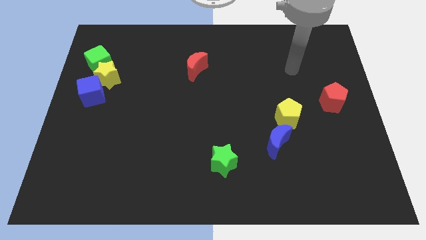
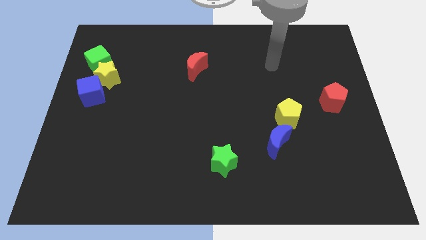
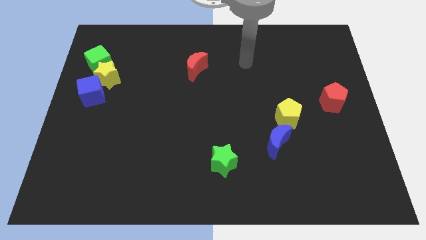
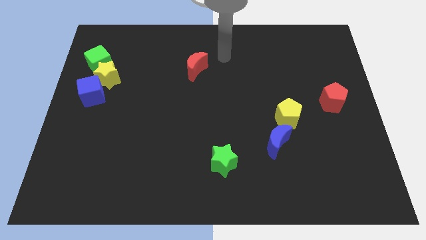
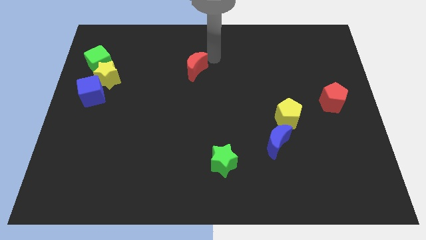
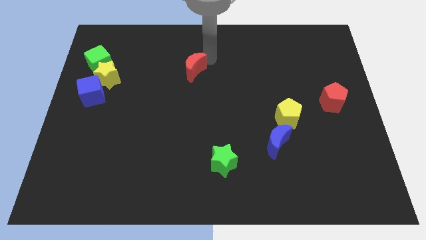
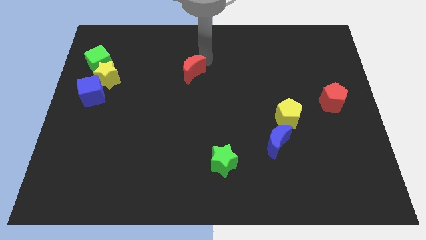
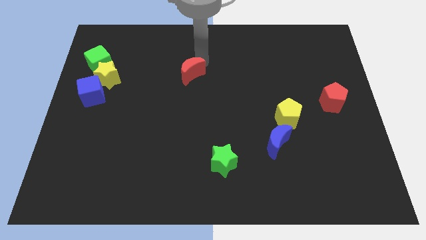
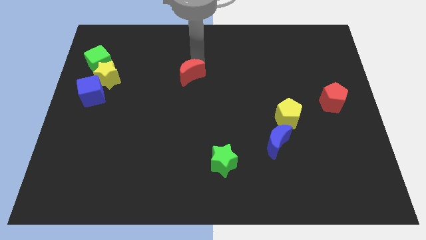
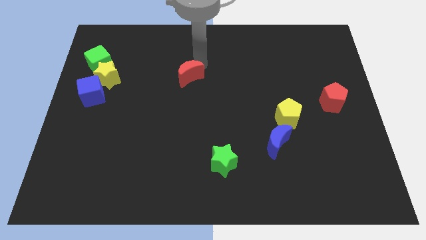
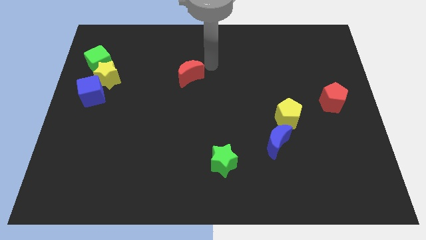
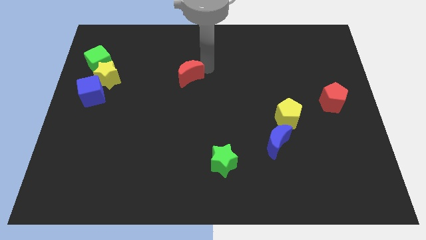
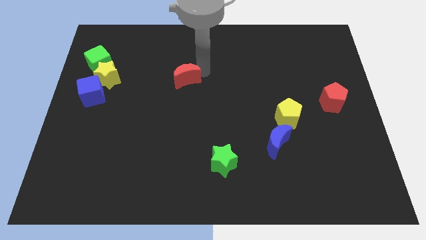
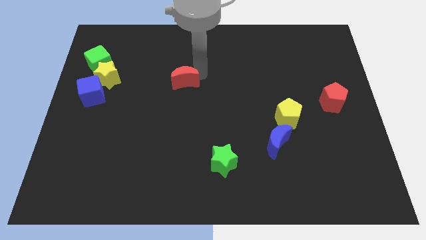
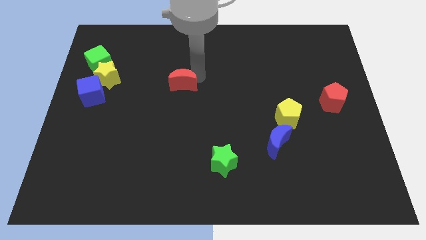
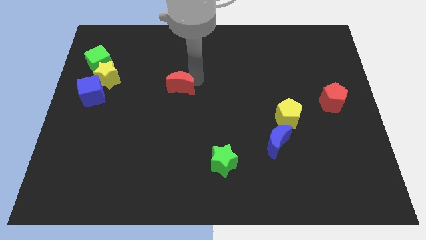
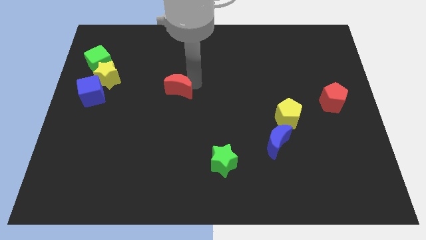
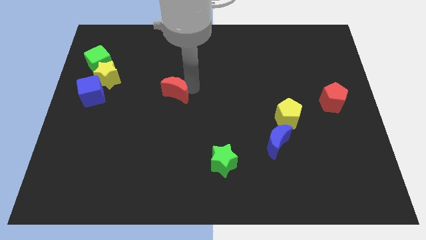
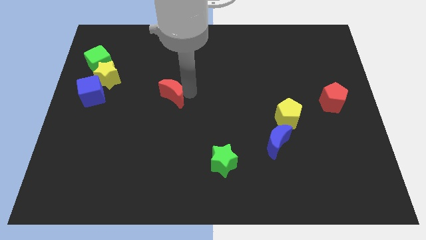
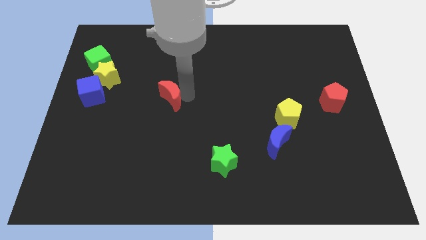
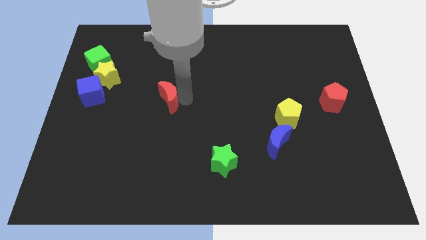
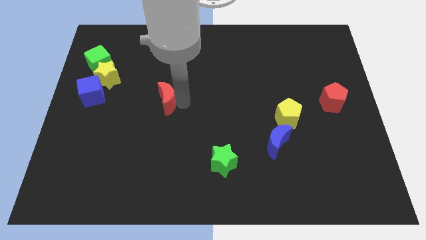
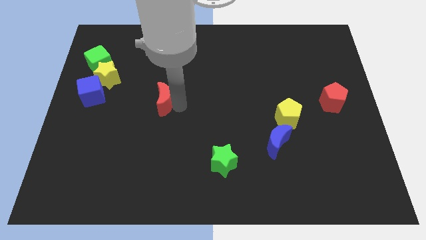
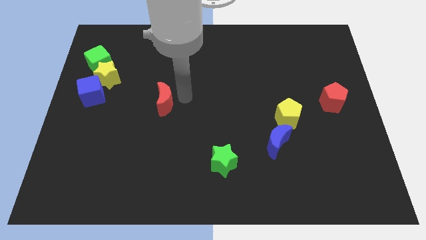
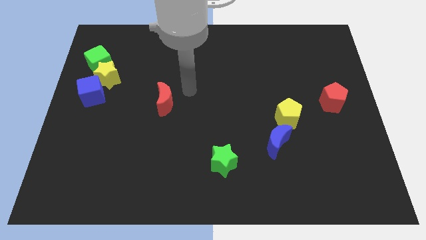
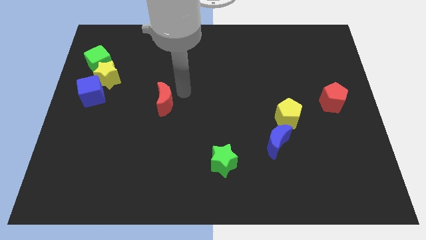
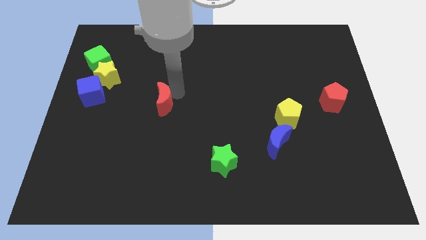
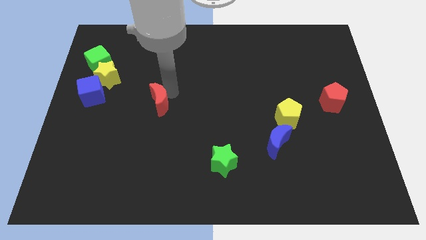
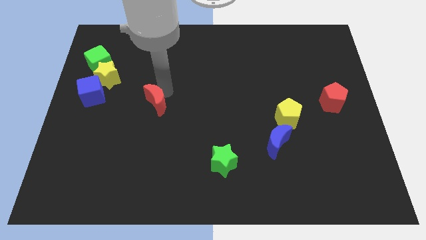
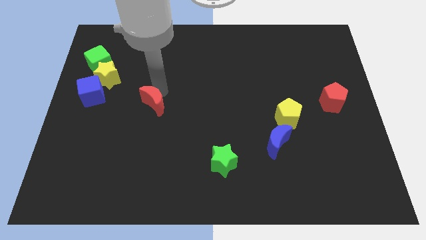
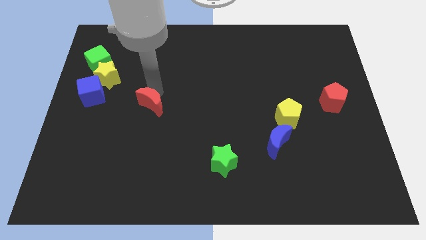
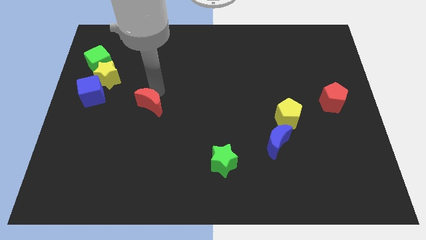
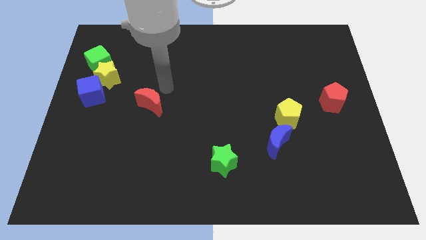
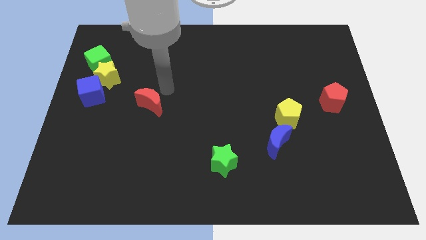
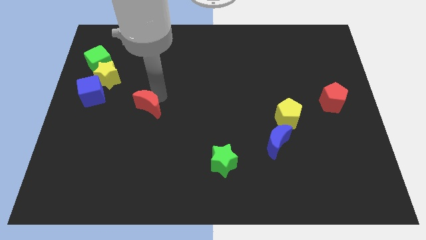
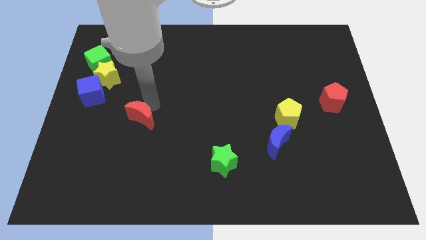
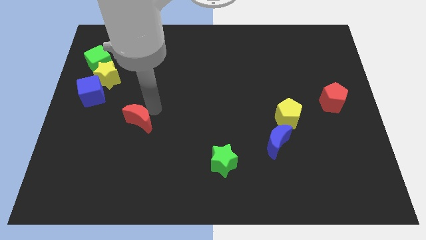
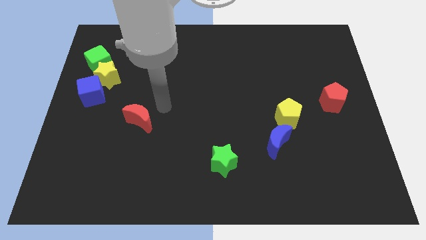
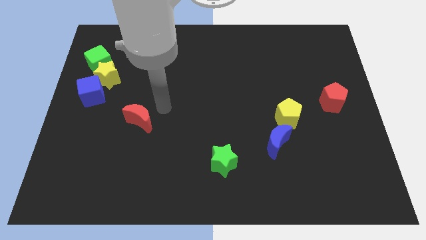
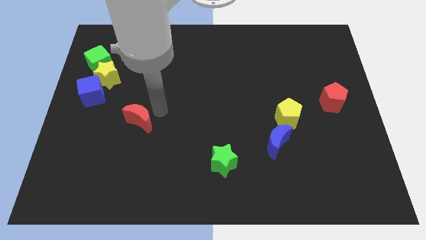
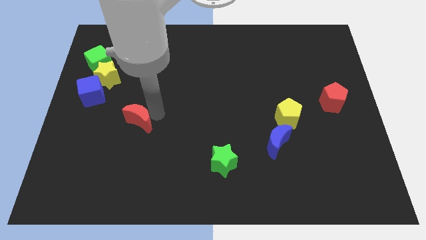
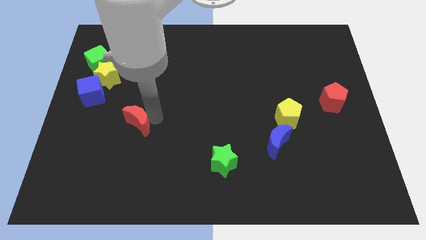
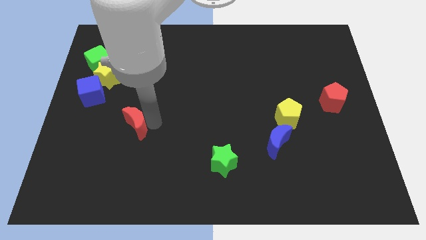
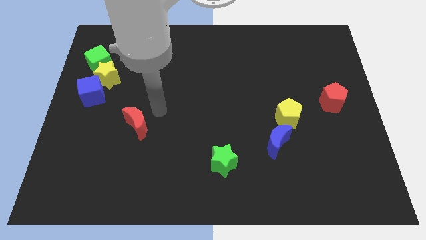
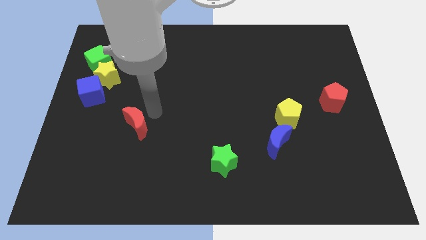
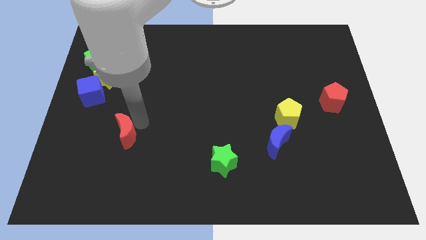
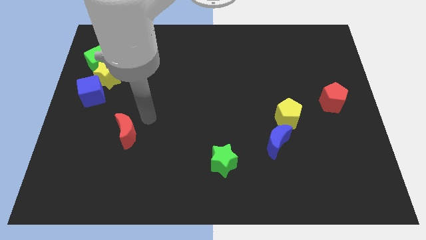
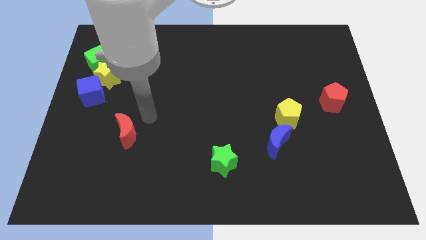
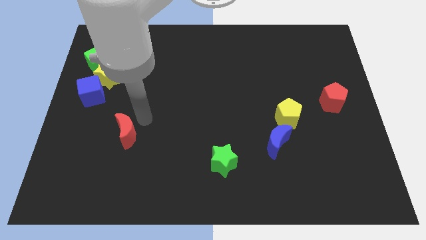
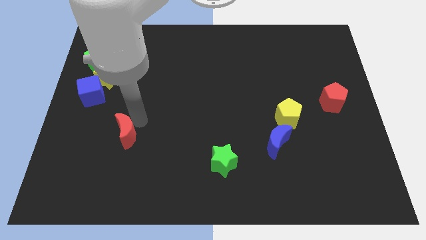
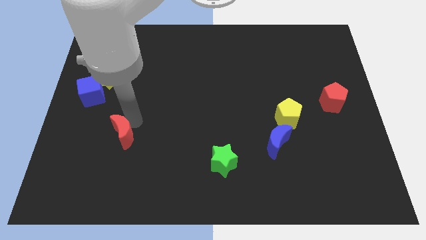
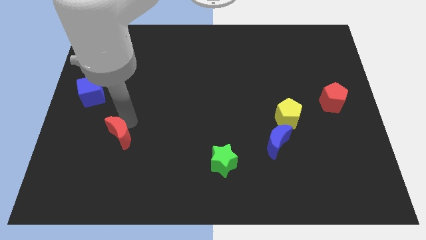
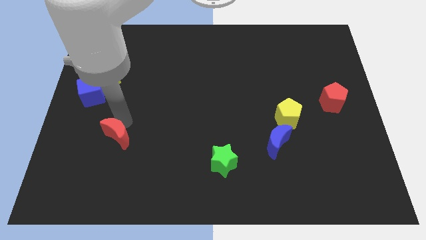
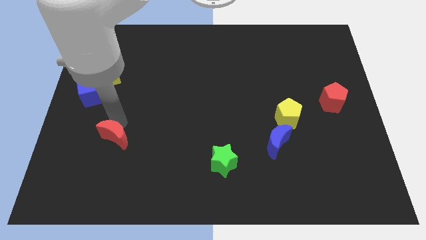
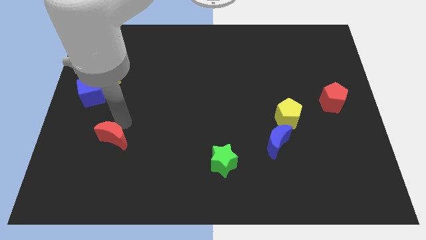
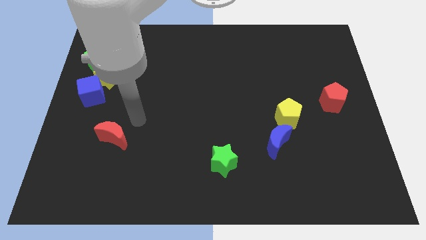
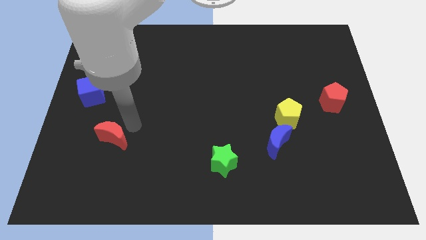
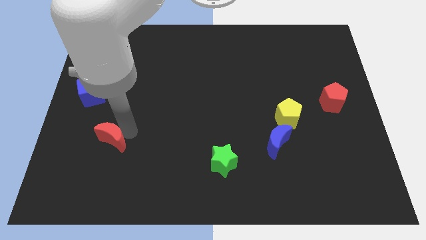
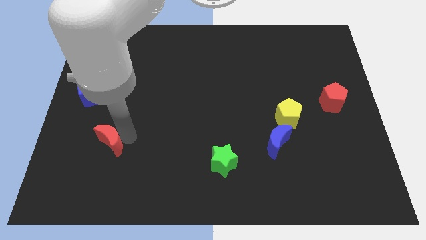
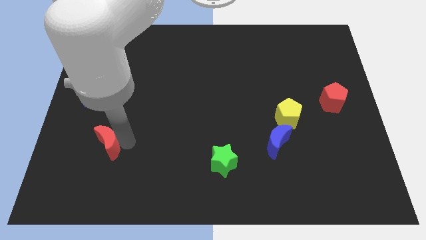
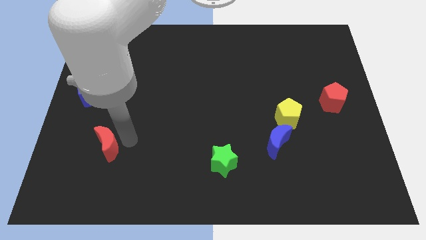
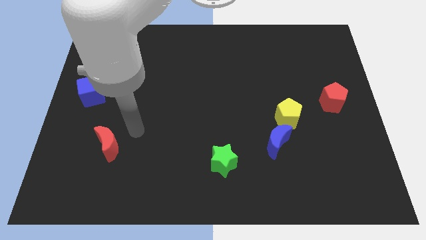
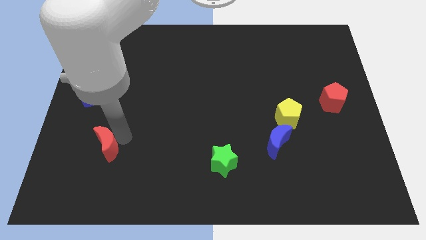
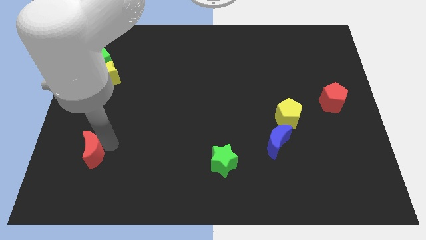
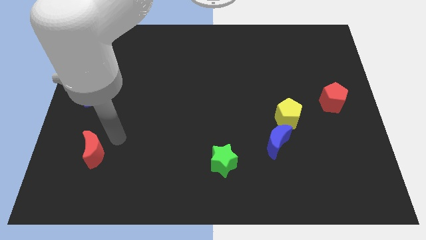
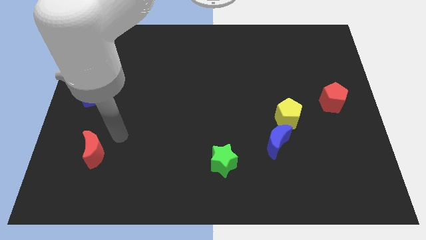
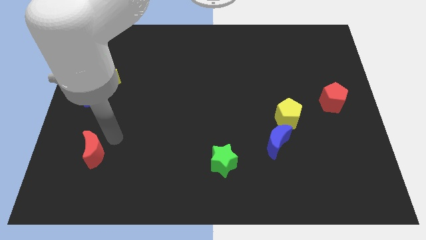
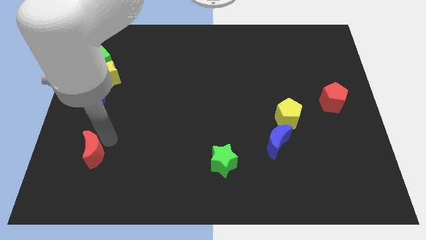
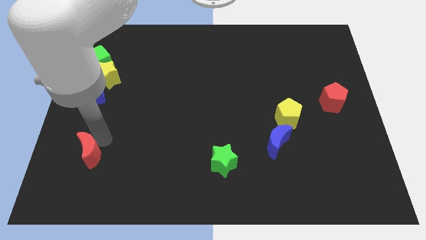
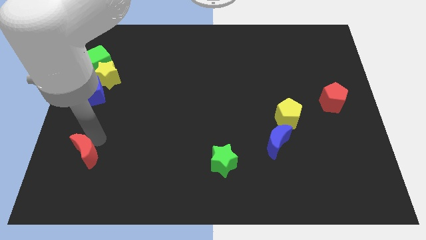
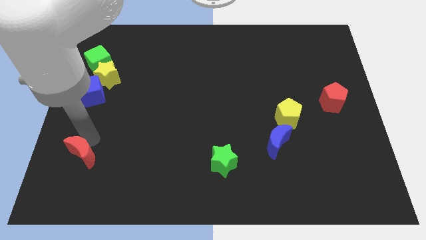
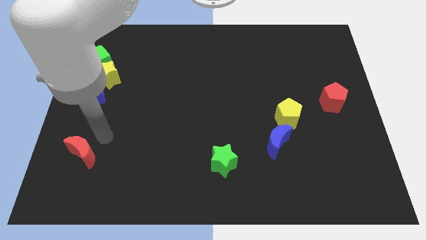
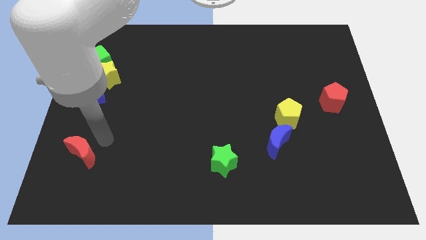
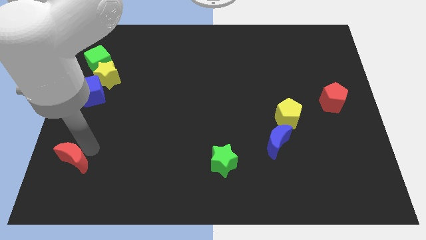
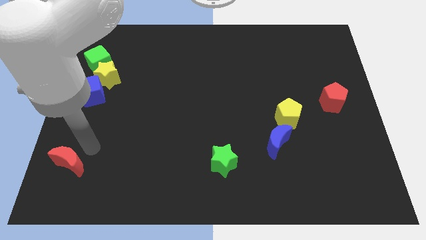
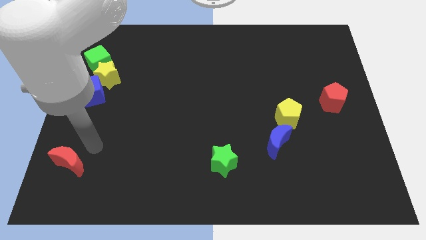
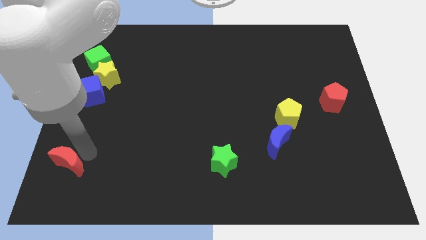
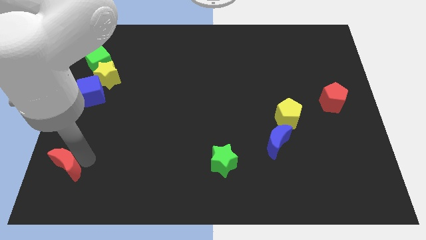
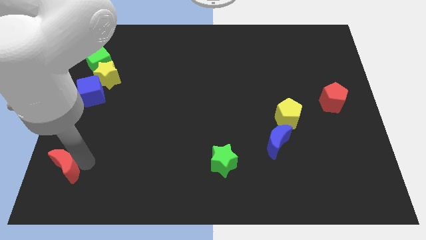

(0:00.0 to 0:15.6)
slide the red moon to the bottom left corner
